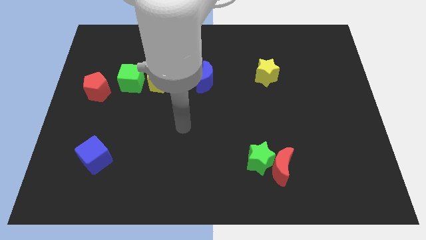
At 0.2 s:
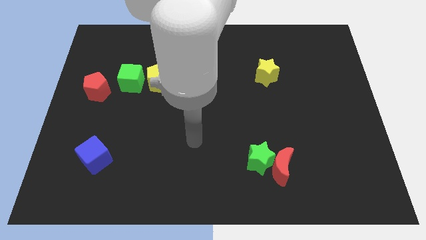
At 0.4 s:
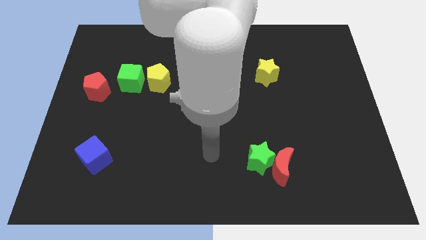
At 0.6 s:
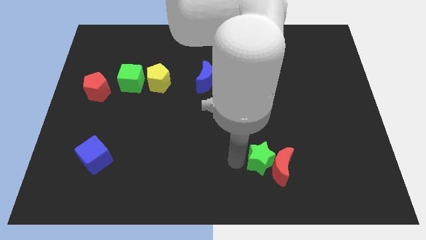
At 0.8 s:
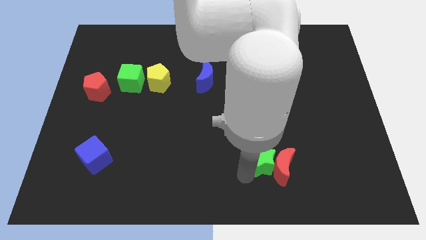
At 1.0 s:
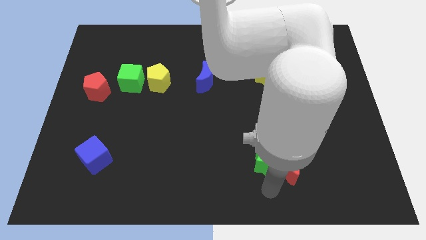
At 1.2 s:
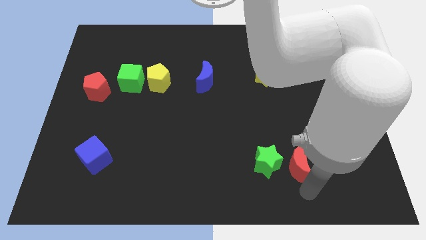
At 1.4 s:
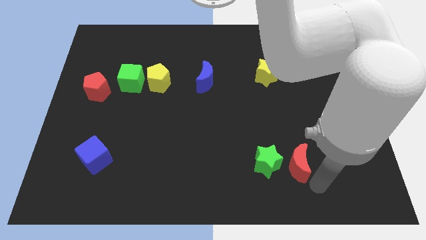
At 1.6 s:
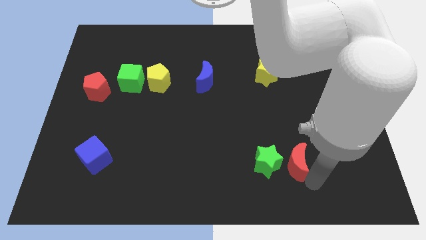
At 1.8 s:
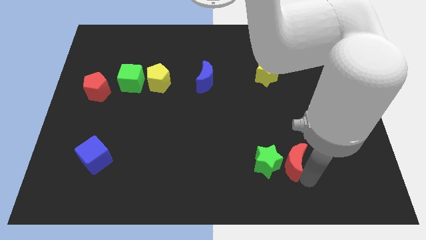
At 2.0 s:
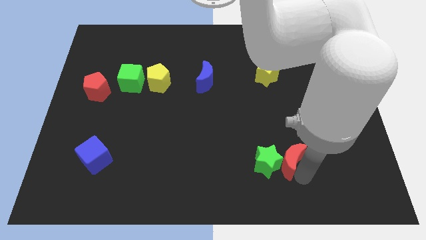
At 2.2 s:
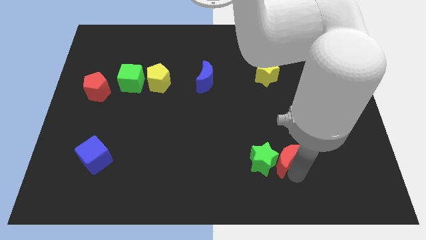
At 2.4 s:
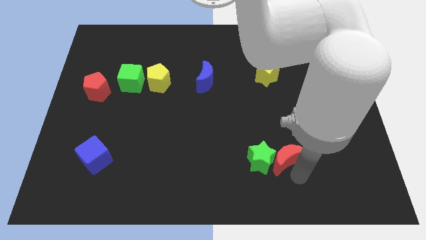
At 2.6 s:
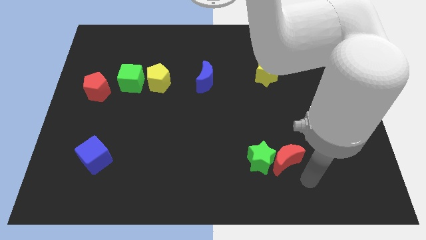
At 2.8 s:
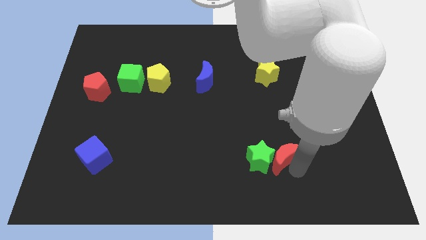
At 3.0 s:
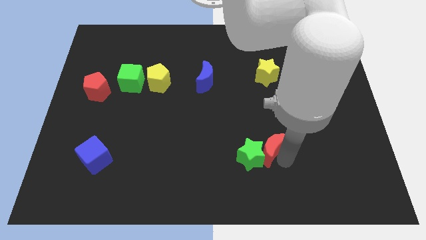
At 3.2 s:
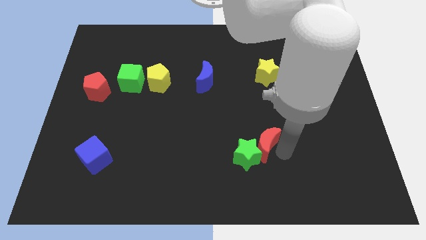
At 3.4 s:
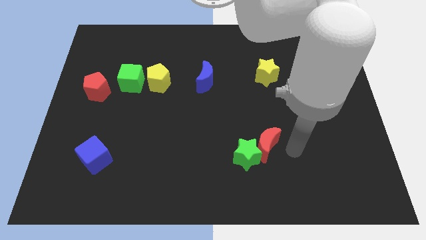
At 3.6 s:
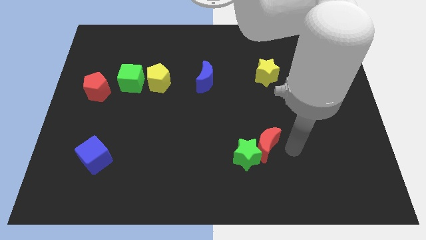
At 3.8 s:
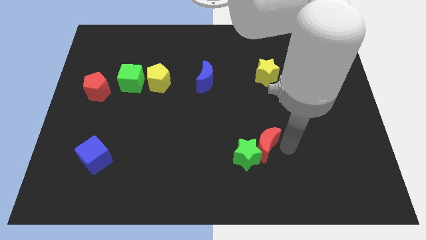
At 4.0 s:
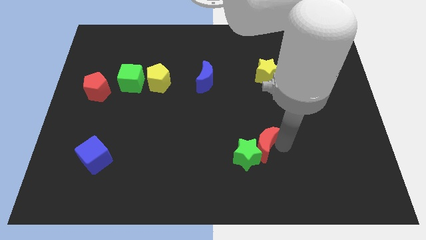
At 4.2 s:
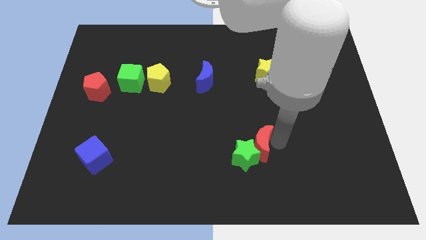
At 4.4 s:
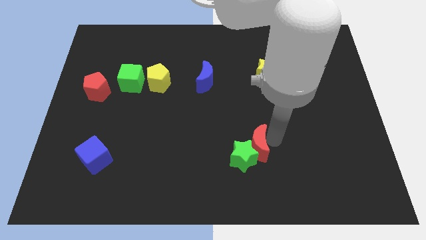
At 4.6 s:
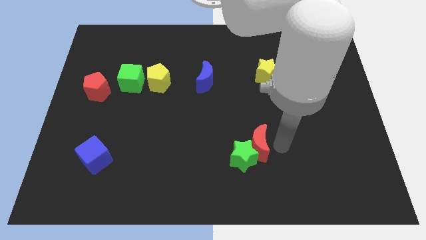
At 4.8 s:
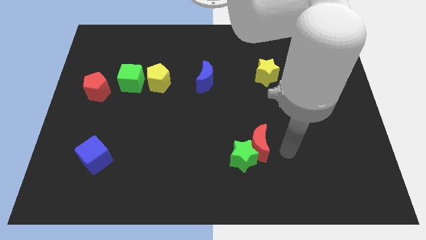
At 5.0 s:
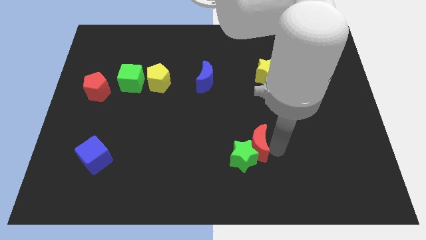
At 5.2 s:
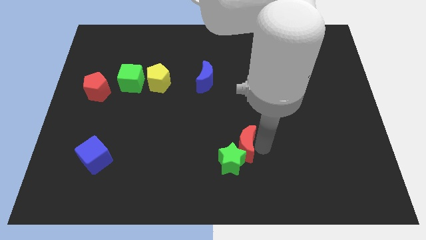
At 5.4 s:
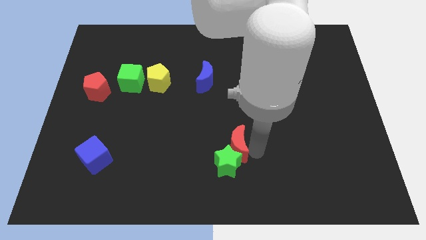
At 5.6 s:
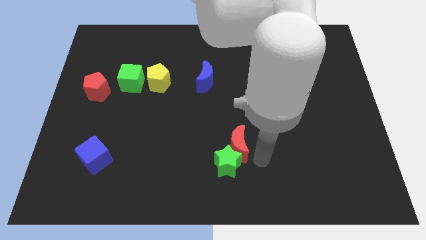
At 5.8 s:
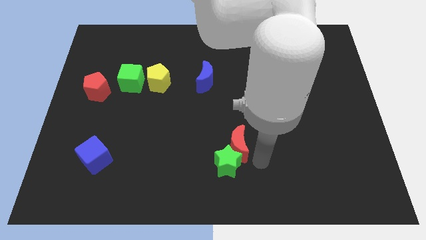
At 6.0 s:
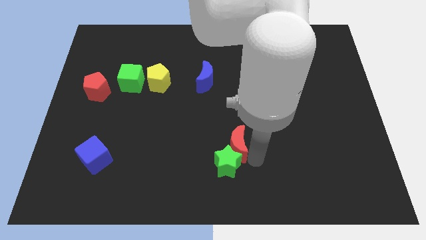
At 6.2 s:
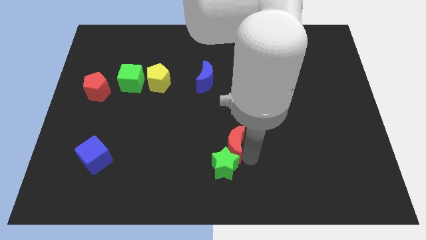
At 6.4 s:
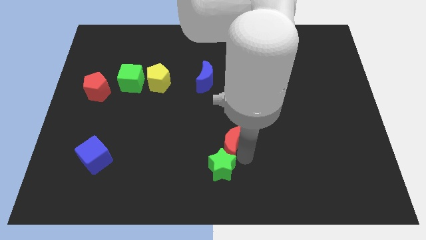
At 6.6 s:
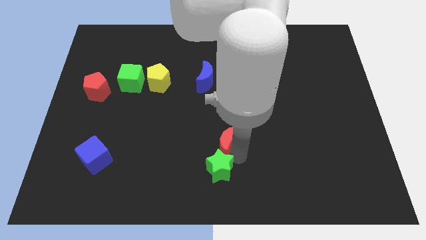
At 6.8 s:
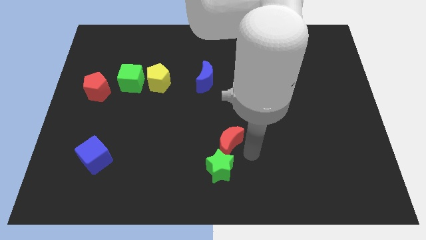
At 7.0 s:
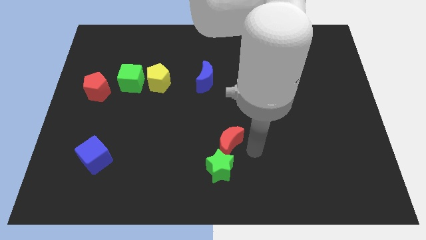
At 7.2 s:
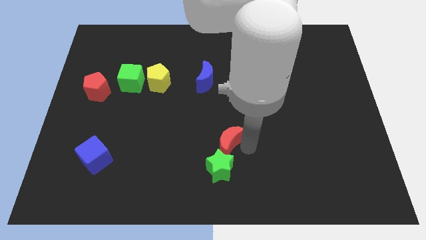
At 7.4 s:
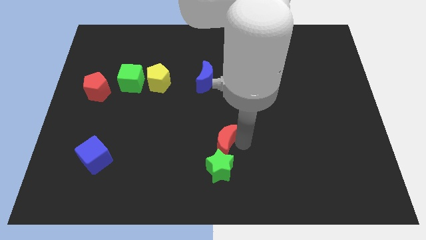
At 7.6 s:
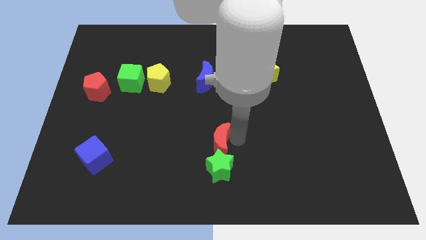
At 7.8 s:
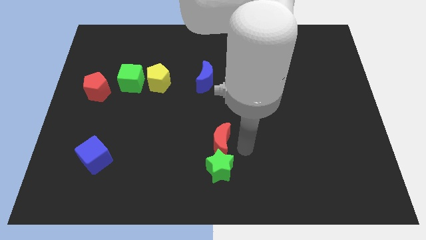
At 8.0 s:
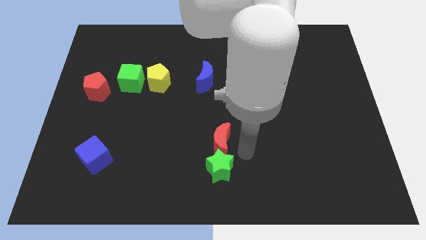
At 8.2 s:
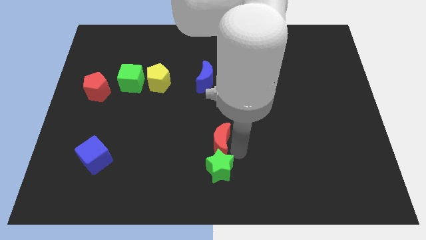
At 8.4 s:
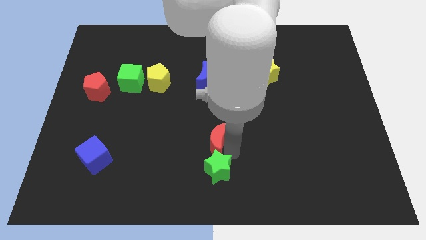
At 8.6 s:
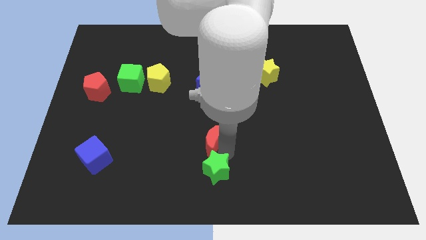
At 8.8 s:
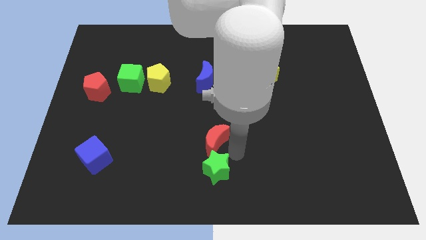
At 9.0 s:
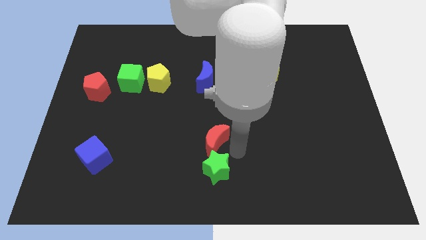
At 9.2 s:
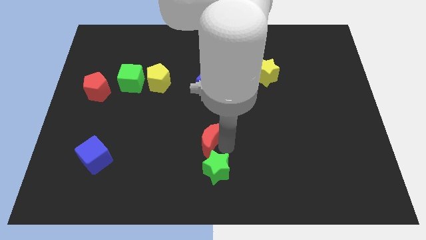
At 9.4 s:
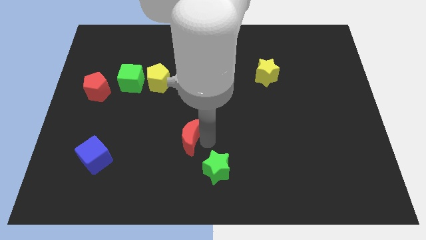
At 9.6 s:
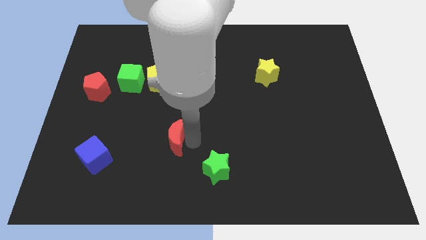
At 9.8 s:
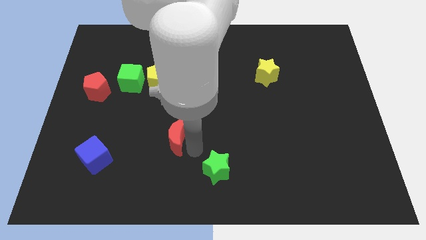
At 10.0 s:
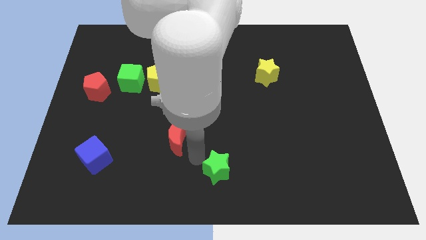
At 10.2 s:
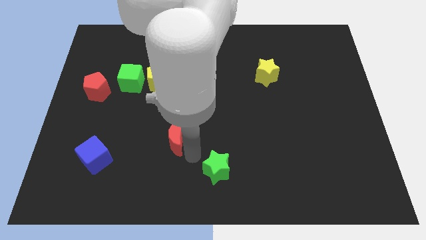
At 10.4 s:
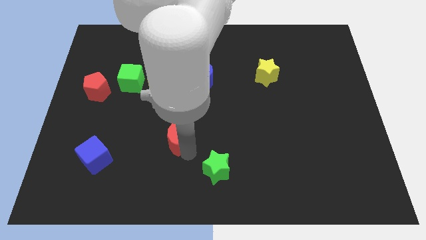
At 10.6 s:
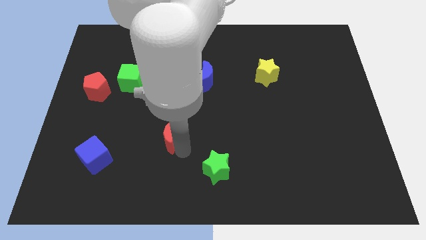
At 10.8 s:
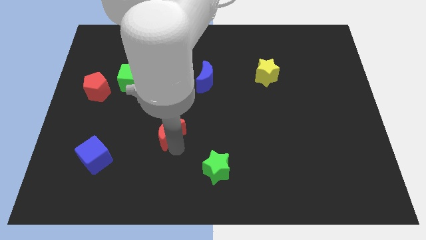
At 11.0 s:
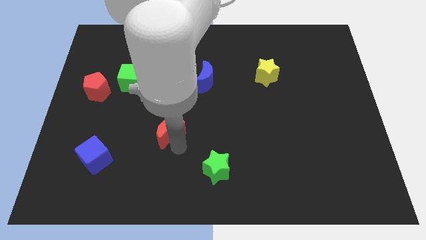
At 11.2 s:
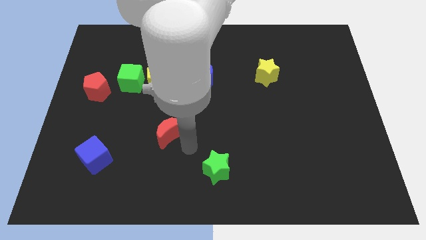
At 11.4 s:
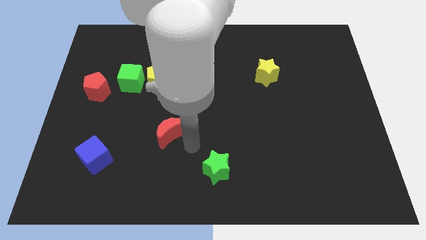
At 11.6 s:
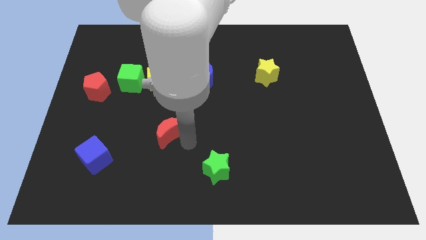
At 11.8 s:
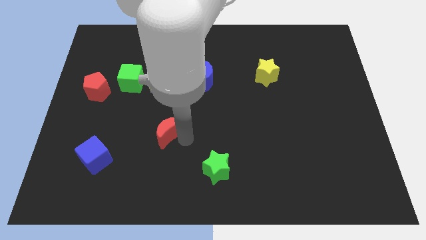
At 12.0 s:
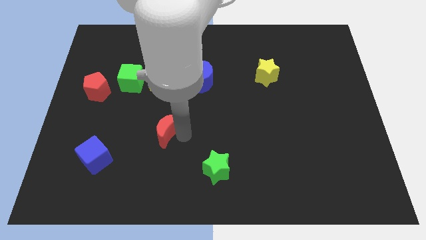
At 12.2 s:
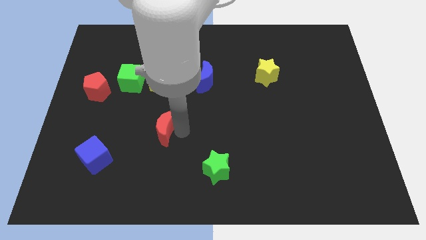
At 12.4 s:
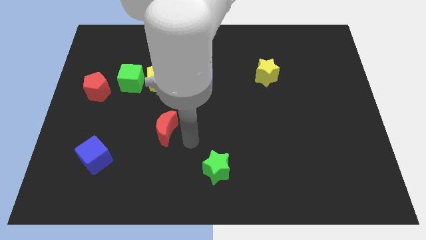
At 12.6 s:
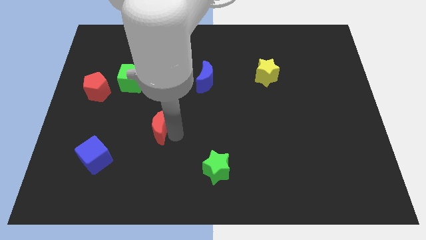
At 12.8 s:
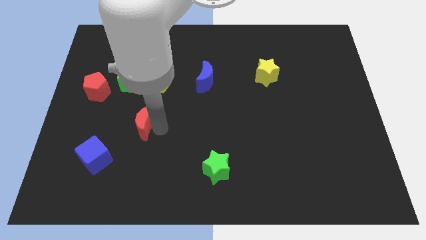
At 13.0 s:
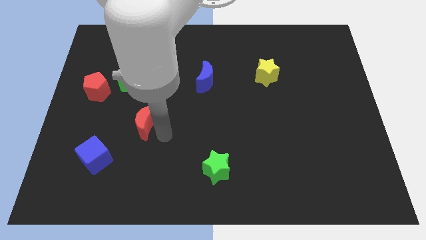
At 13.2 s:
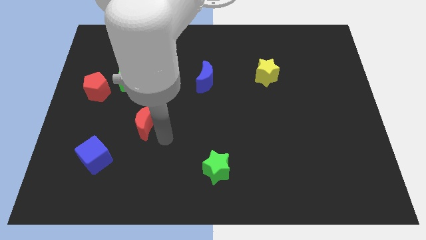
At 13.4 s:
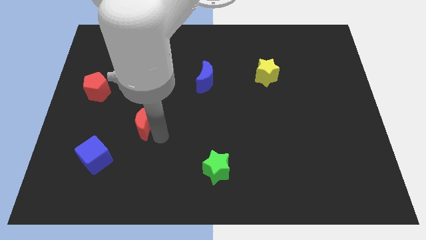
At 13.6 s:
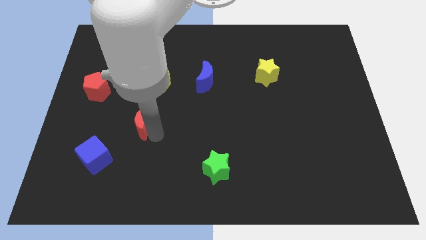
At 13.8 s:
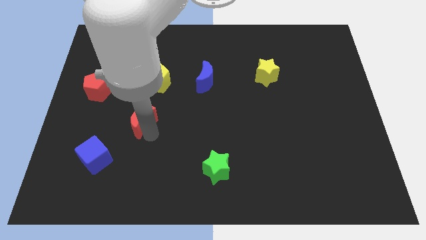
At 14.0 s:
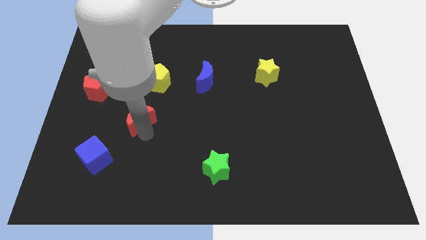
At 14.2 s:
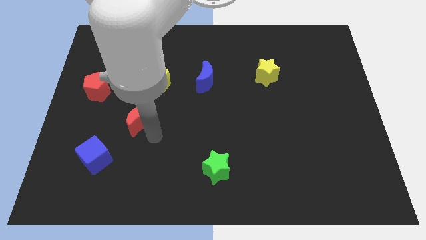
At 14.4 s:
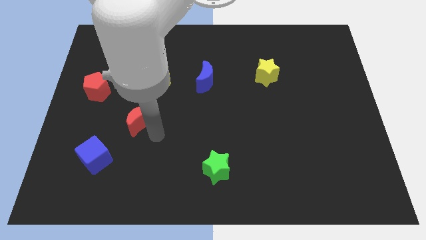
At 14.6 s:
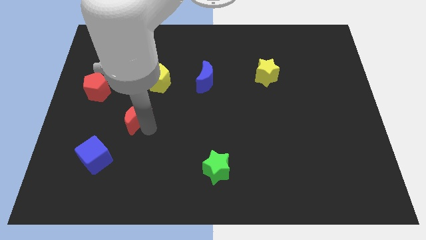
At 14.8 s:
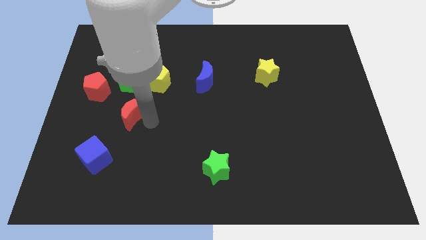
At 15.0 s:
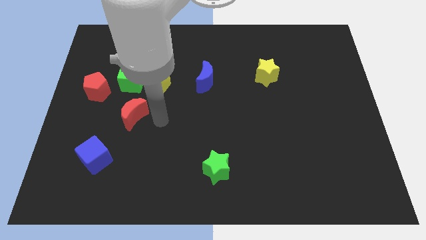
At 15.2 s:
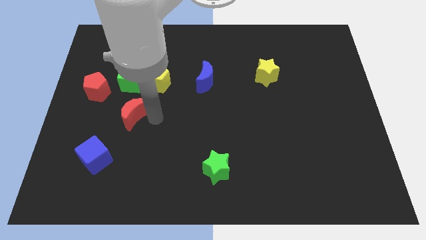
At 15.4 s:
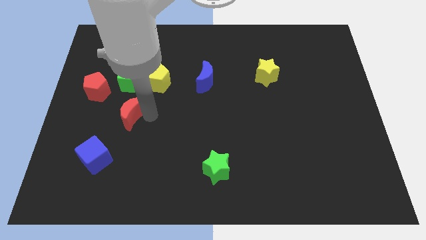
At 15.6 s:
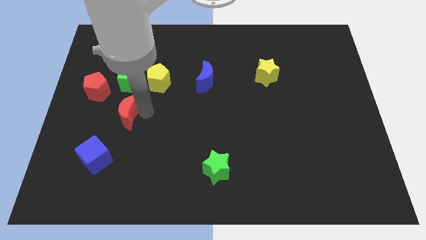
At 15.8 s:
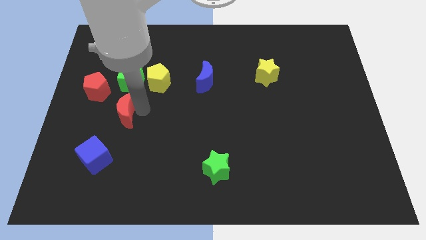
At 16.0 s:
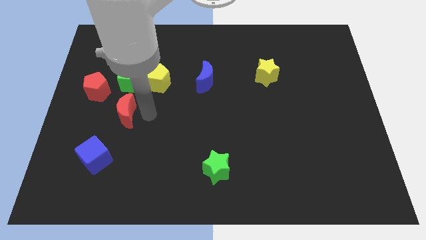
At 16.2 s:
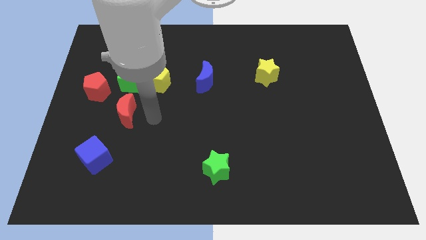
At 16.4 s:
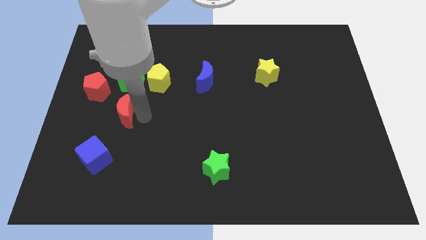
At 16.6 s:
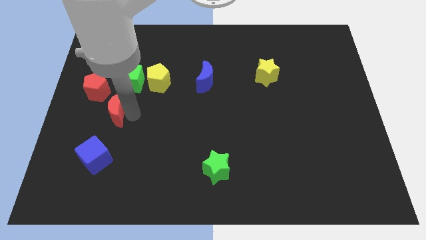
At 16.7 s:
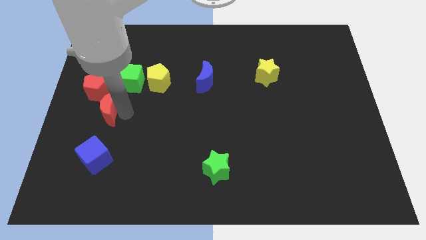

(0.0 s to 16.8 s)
move the red moon to the bottom left of the green cube
